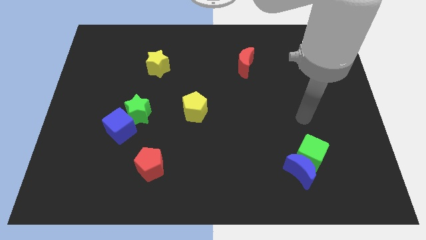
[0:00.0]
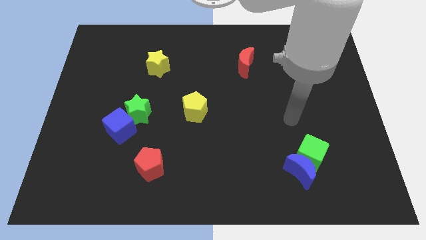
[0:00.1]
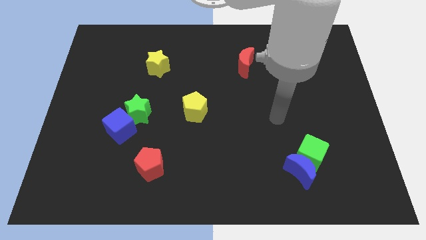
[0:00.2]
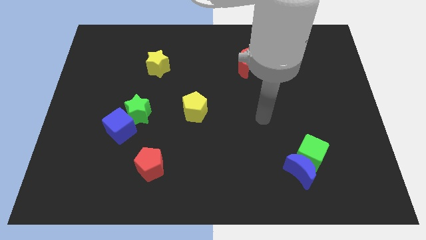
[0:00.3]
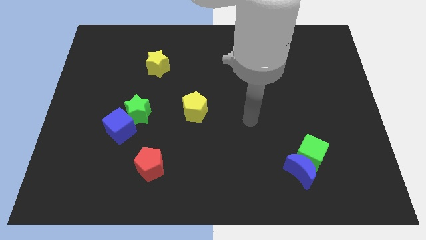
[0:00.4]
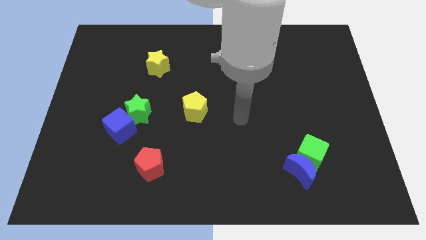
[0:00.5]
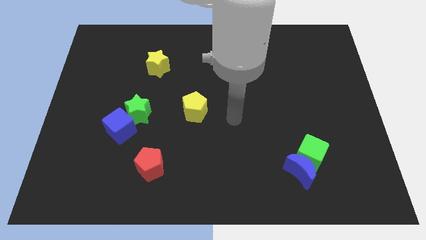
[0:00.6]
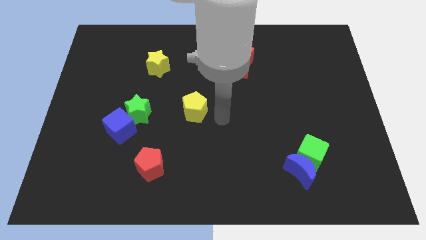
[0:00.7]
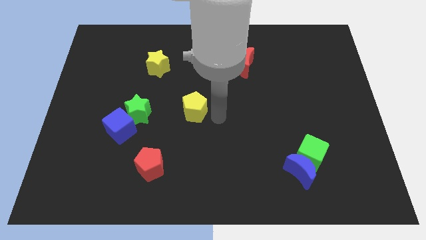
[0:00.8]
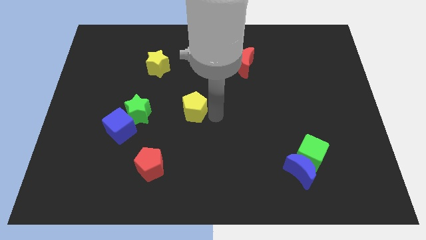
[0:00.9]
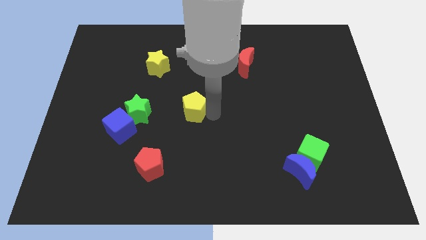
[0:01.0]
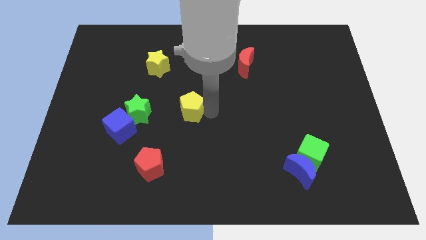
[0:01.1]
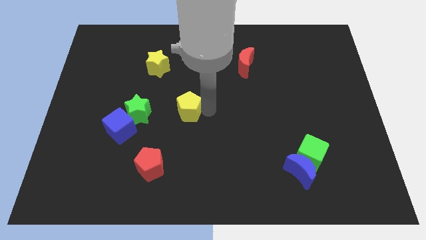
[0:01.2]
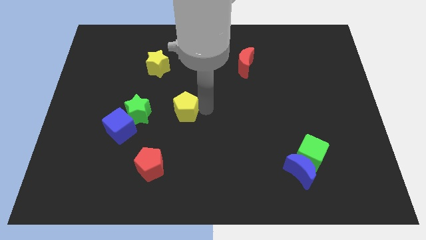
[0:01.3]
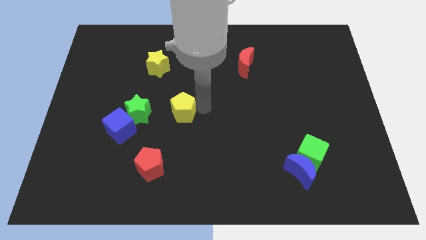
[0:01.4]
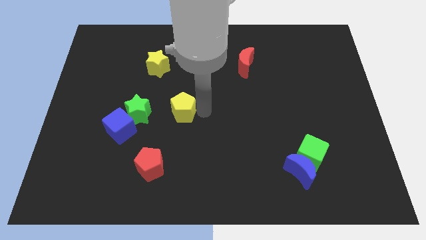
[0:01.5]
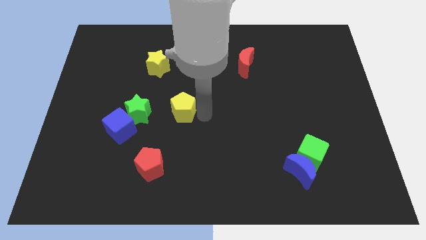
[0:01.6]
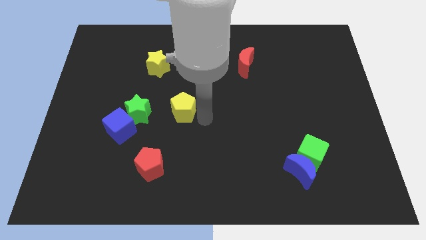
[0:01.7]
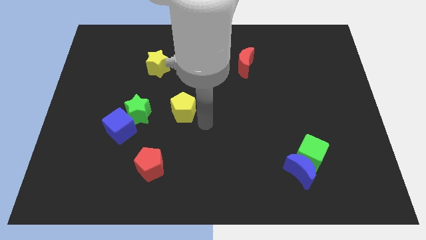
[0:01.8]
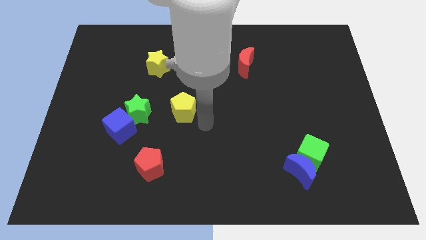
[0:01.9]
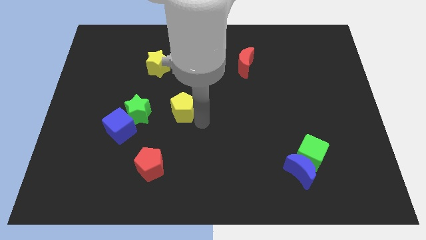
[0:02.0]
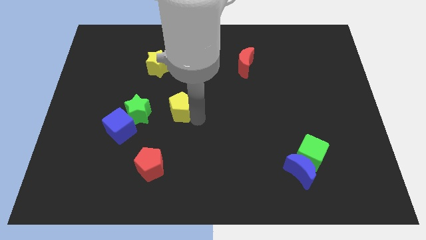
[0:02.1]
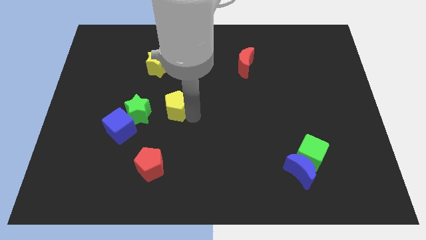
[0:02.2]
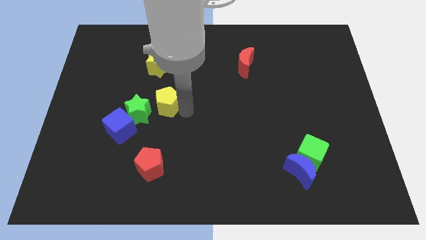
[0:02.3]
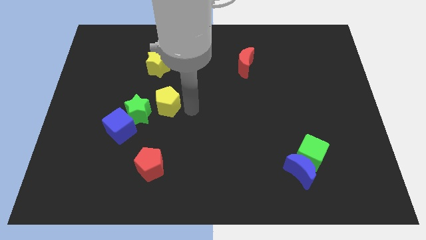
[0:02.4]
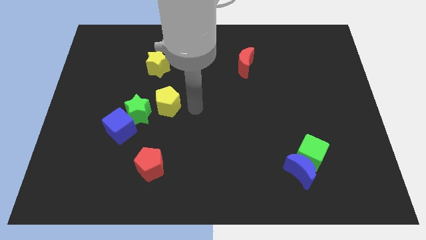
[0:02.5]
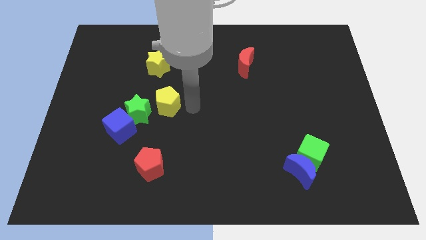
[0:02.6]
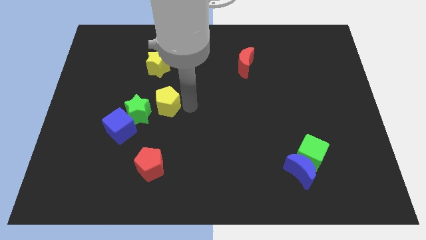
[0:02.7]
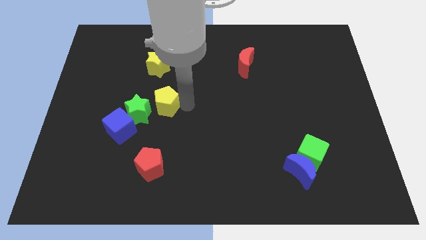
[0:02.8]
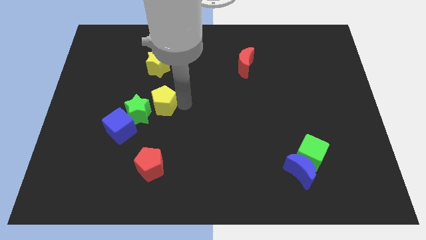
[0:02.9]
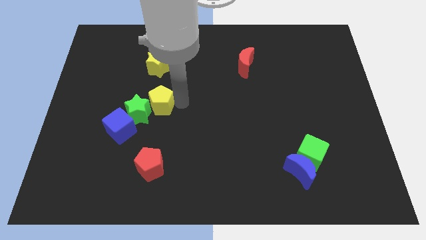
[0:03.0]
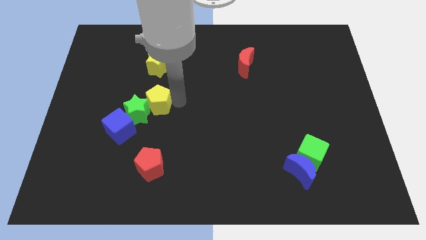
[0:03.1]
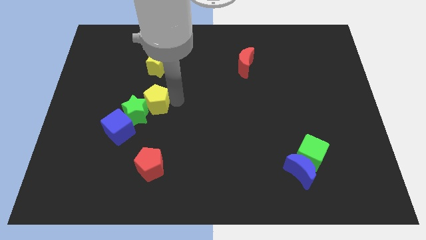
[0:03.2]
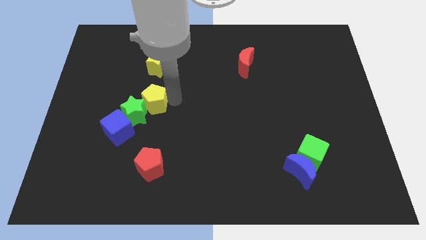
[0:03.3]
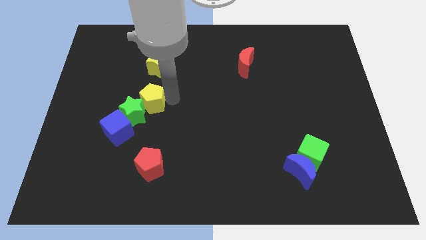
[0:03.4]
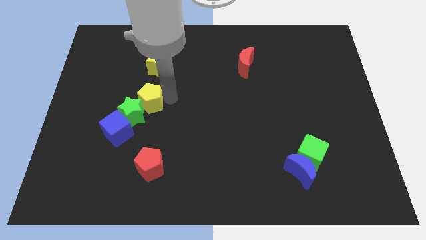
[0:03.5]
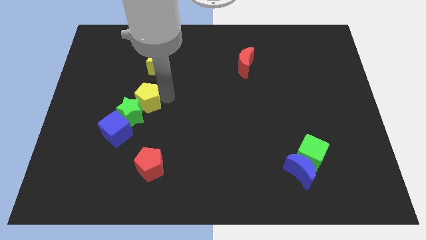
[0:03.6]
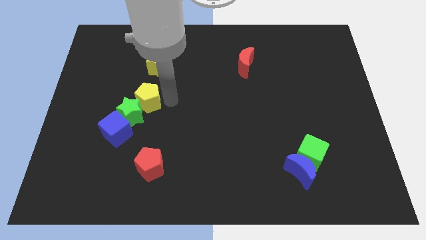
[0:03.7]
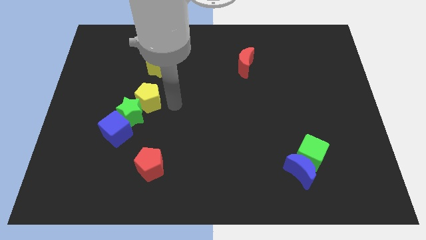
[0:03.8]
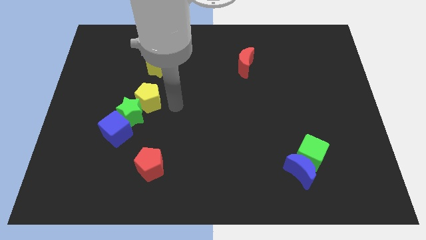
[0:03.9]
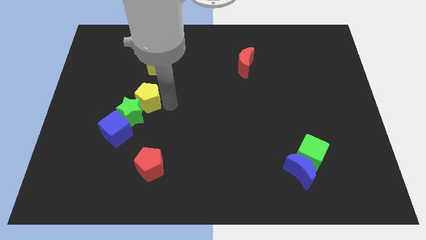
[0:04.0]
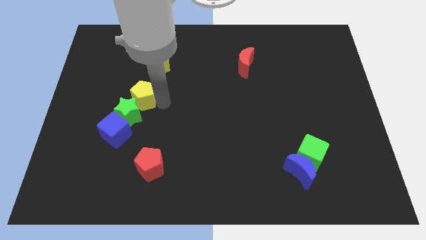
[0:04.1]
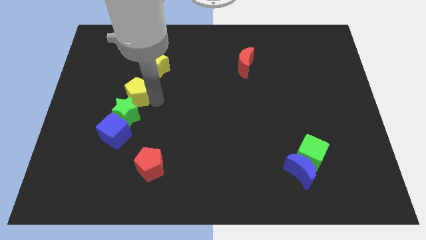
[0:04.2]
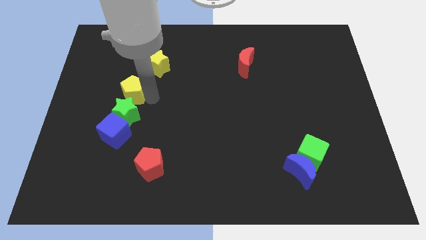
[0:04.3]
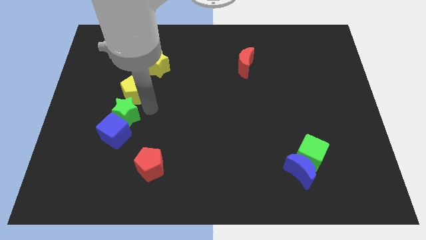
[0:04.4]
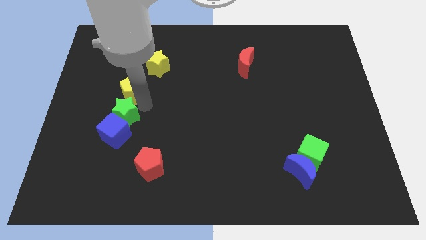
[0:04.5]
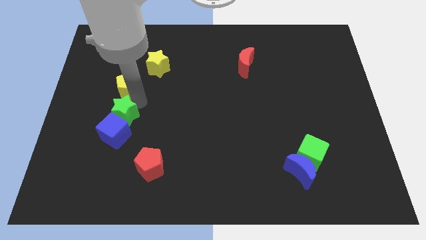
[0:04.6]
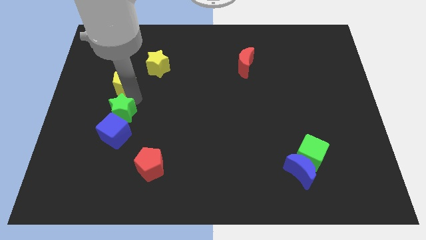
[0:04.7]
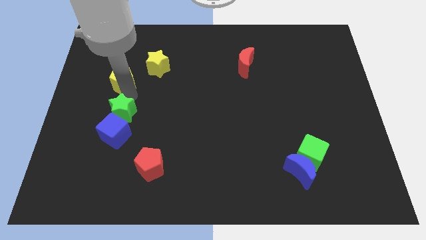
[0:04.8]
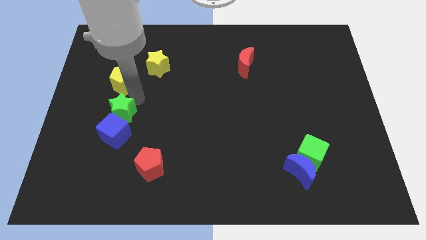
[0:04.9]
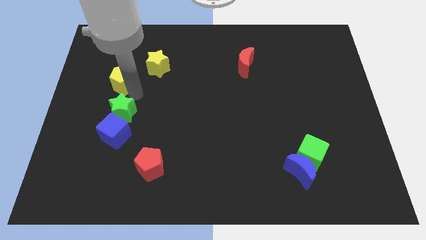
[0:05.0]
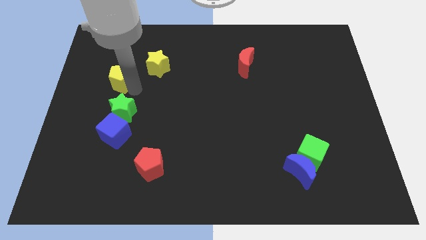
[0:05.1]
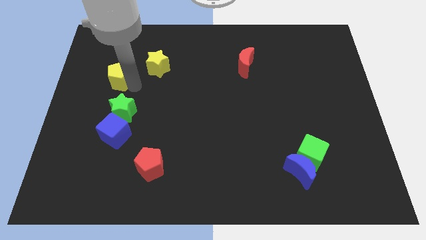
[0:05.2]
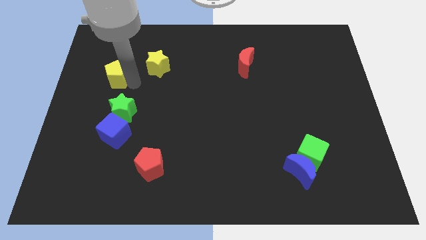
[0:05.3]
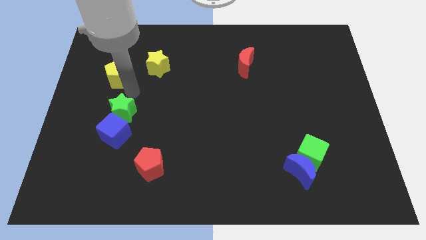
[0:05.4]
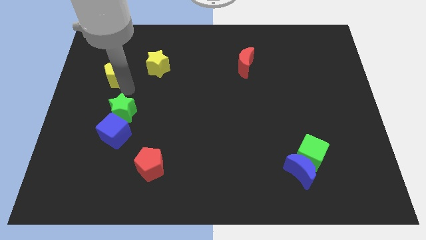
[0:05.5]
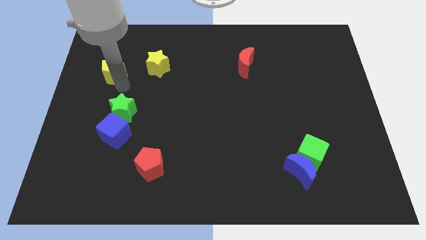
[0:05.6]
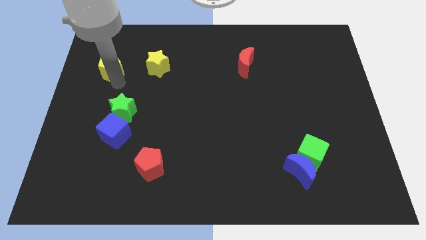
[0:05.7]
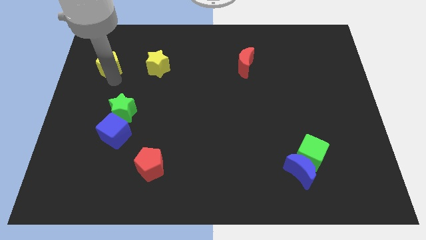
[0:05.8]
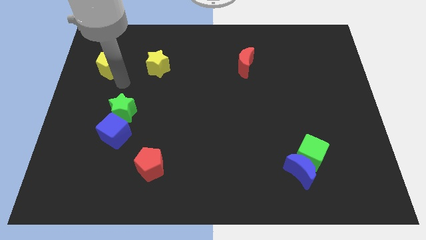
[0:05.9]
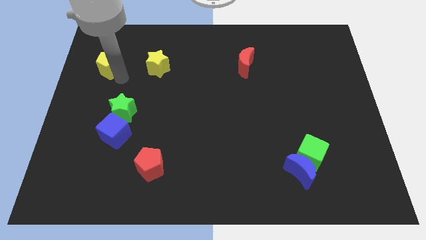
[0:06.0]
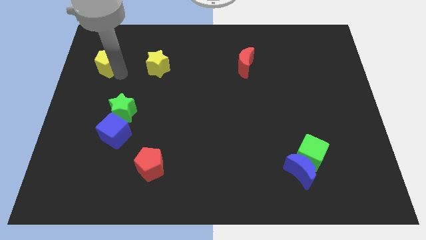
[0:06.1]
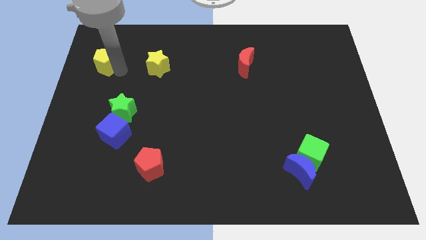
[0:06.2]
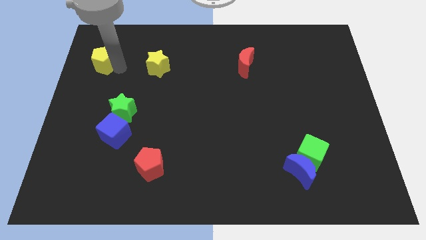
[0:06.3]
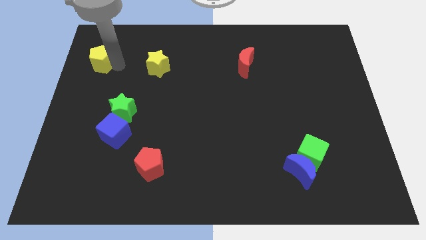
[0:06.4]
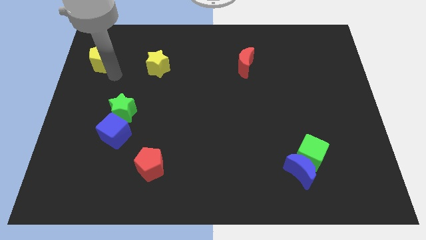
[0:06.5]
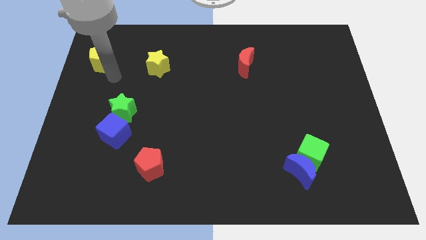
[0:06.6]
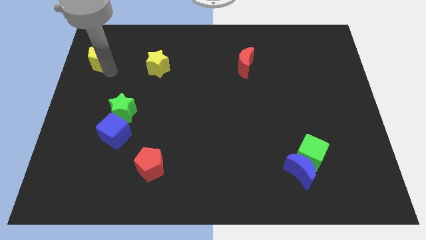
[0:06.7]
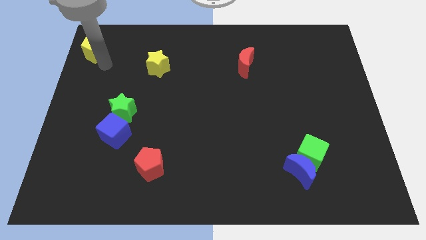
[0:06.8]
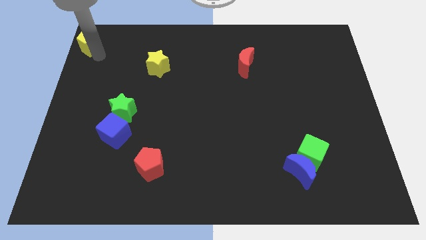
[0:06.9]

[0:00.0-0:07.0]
move the yellow pentagon to the top left of the board

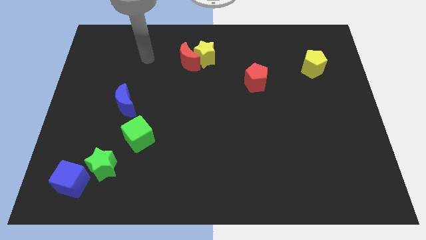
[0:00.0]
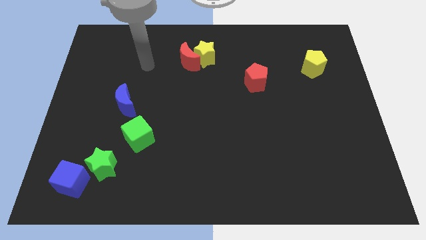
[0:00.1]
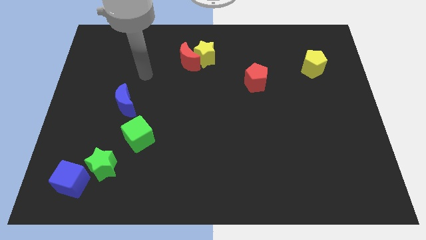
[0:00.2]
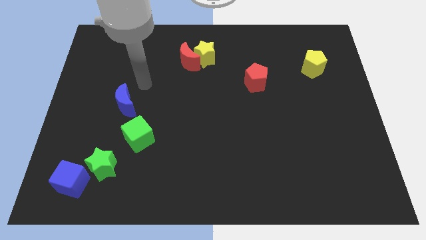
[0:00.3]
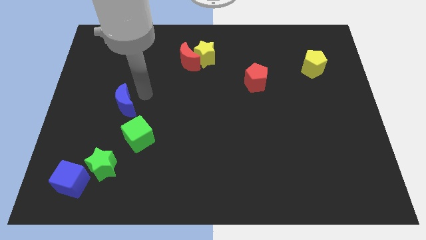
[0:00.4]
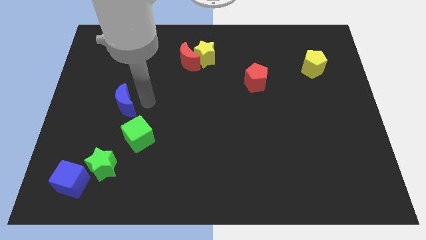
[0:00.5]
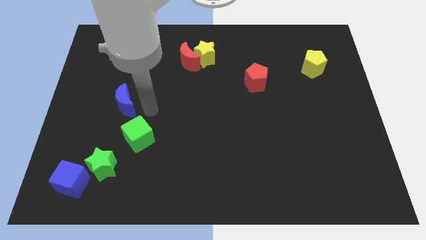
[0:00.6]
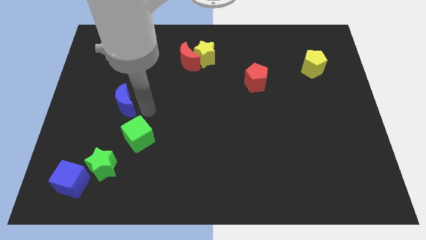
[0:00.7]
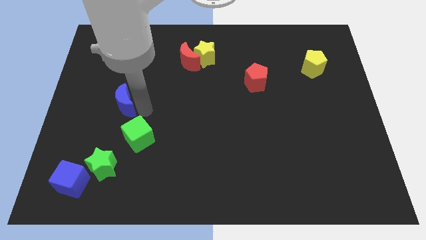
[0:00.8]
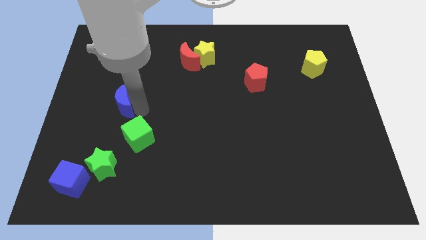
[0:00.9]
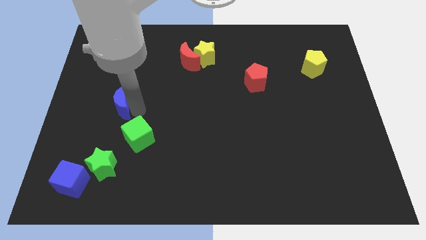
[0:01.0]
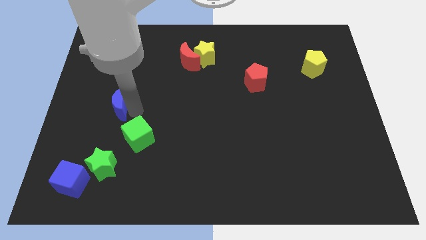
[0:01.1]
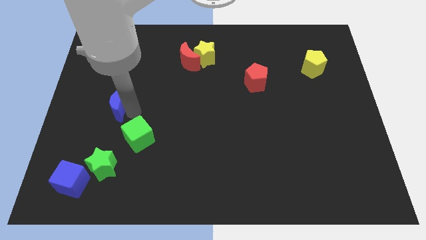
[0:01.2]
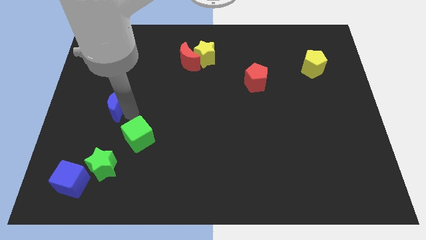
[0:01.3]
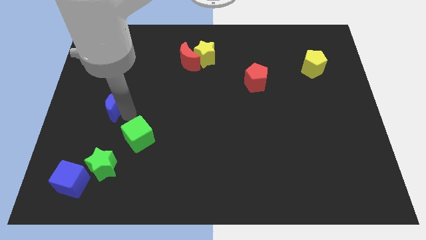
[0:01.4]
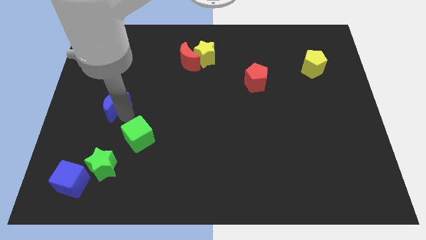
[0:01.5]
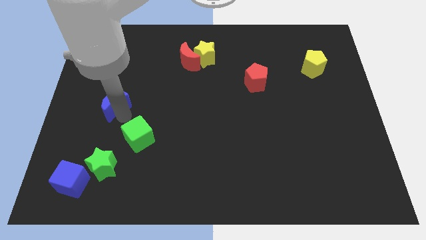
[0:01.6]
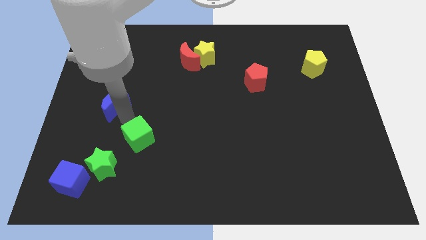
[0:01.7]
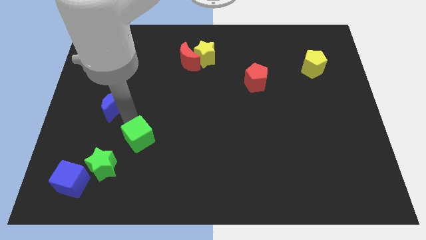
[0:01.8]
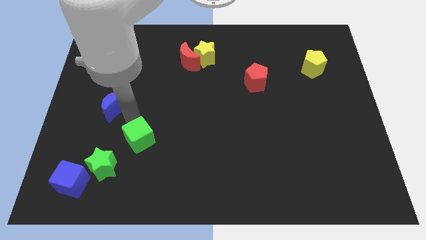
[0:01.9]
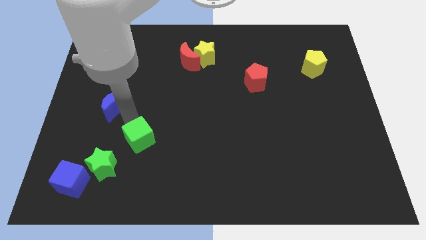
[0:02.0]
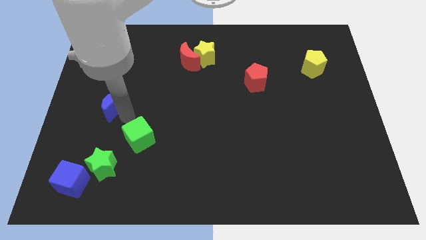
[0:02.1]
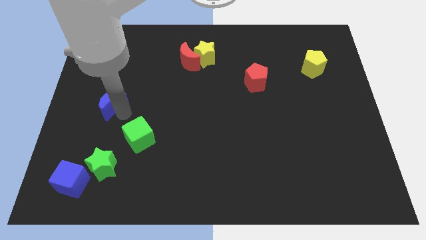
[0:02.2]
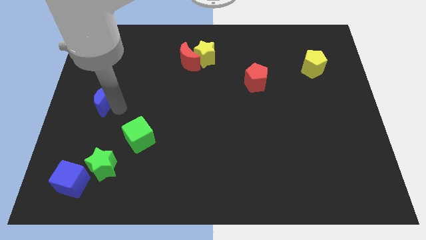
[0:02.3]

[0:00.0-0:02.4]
put the blue moon to the left side of the board
